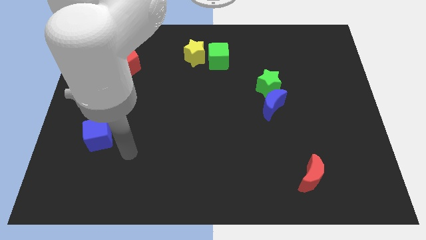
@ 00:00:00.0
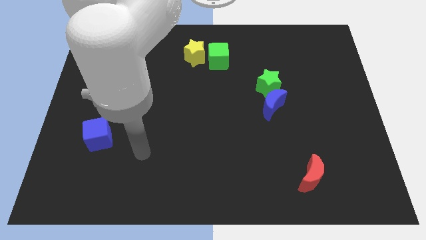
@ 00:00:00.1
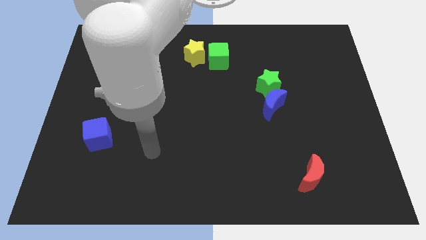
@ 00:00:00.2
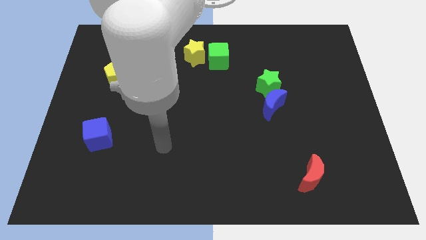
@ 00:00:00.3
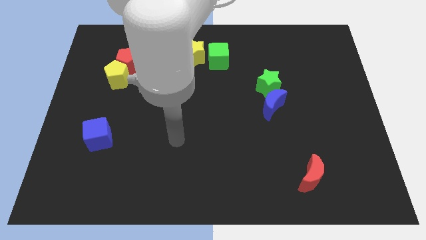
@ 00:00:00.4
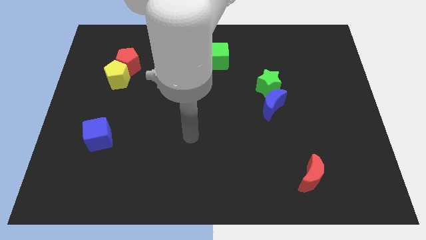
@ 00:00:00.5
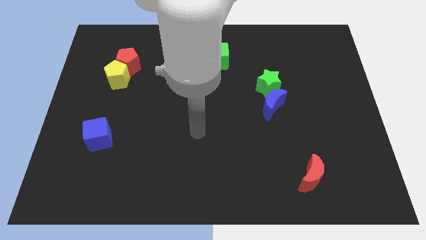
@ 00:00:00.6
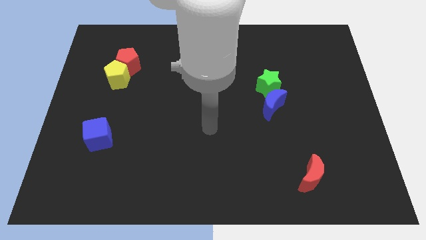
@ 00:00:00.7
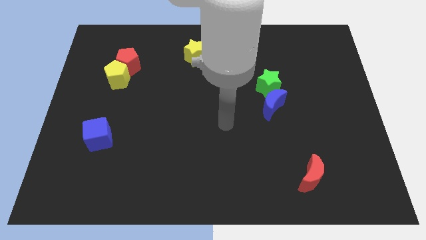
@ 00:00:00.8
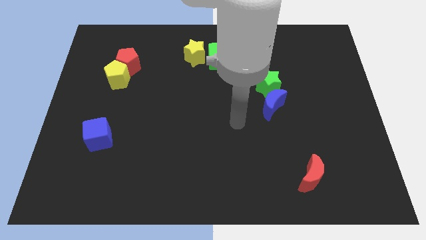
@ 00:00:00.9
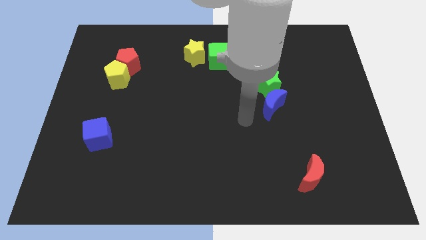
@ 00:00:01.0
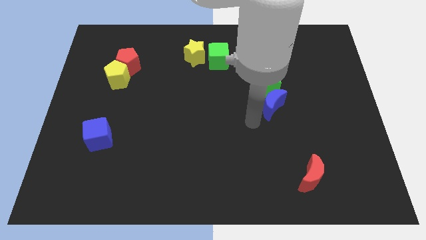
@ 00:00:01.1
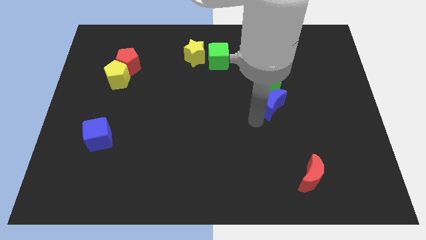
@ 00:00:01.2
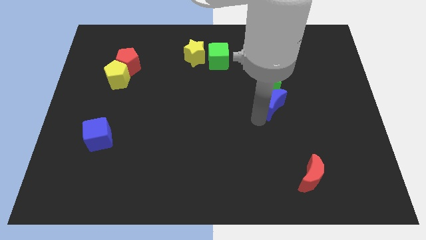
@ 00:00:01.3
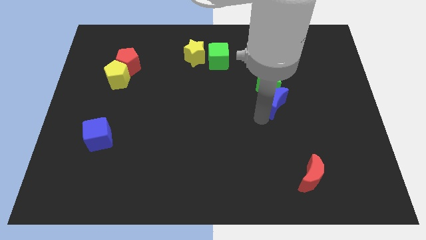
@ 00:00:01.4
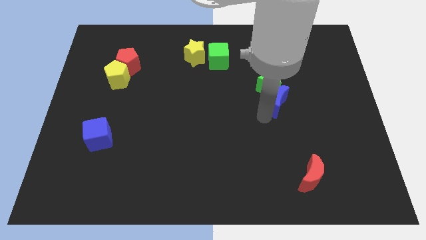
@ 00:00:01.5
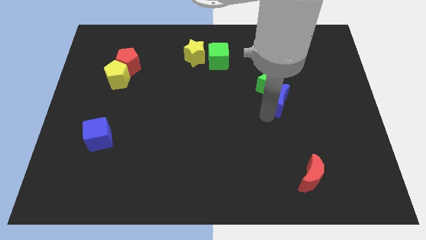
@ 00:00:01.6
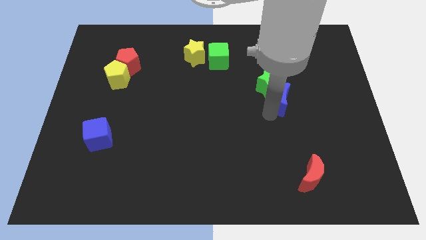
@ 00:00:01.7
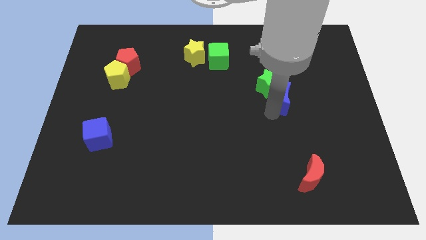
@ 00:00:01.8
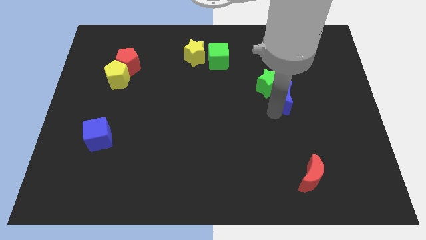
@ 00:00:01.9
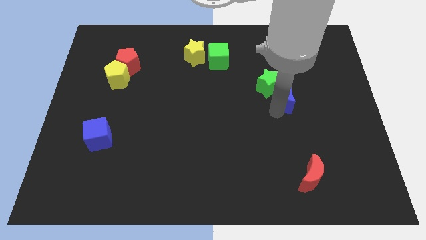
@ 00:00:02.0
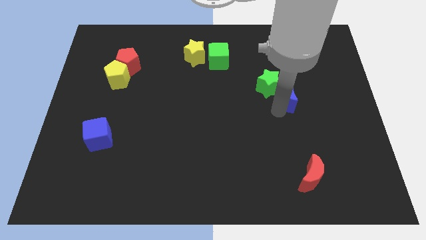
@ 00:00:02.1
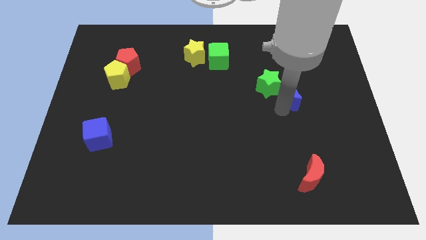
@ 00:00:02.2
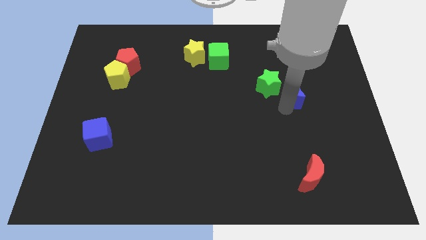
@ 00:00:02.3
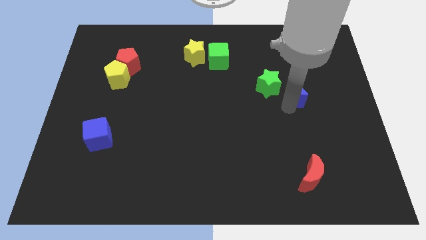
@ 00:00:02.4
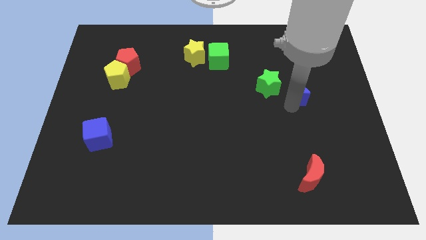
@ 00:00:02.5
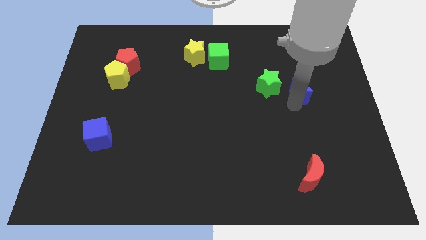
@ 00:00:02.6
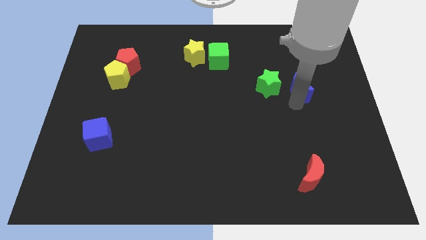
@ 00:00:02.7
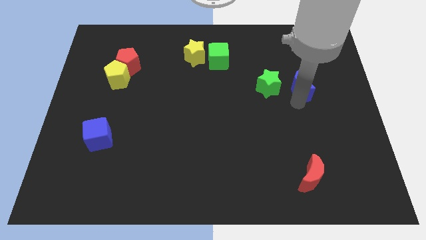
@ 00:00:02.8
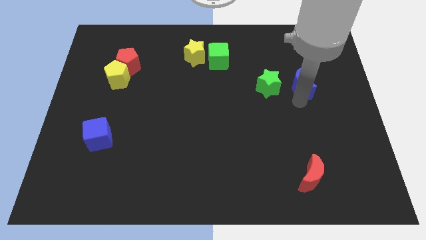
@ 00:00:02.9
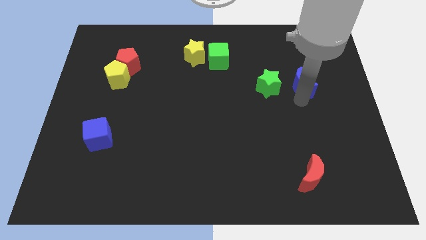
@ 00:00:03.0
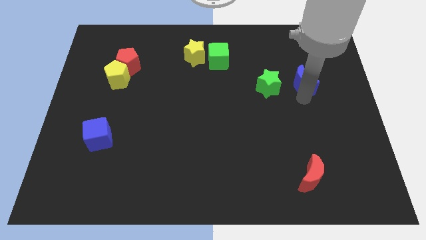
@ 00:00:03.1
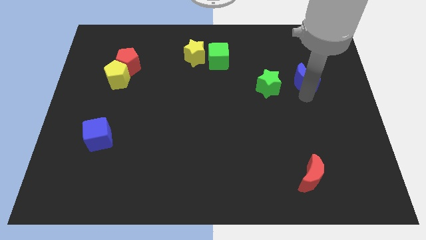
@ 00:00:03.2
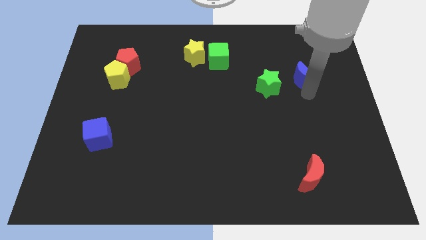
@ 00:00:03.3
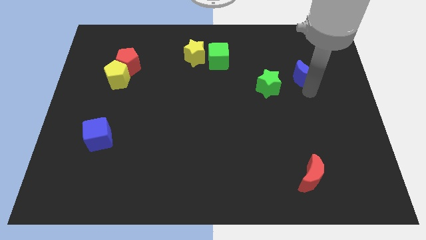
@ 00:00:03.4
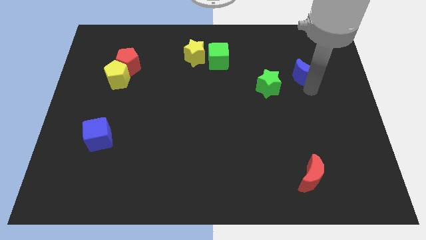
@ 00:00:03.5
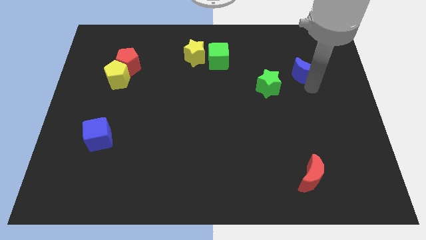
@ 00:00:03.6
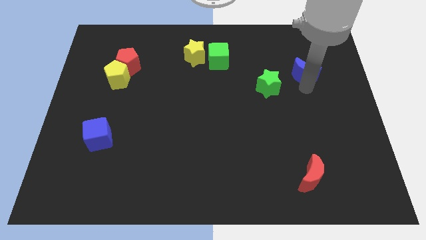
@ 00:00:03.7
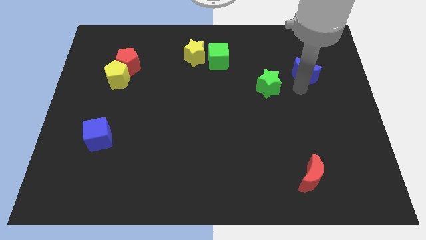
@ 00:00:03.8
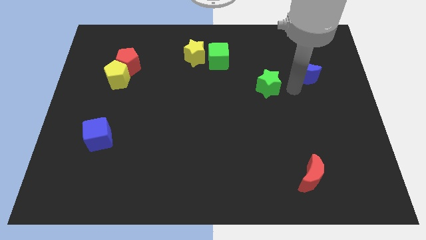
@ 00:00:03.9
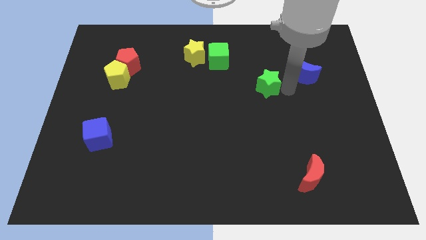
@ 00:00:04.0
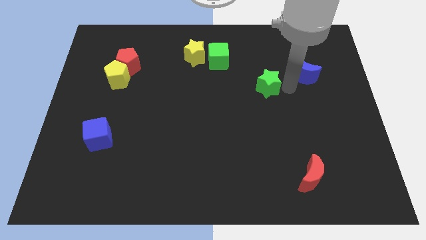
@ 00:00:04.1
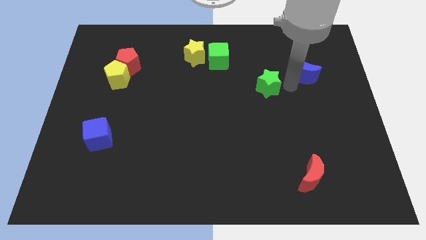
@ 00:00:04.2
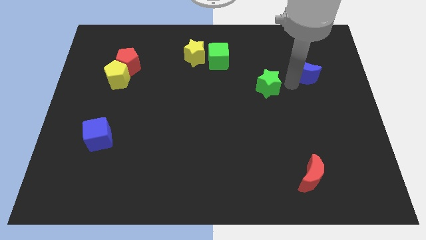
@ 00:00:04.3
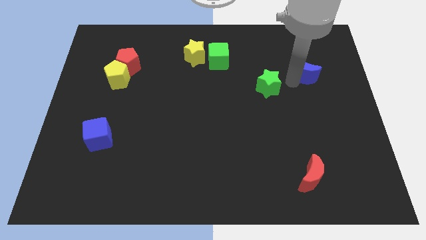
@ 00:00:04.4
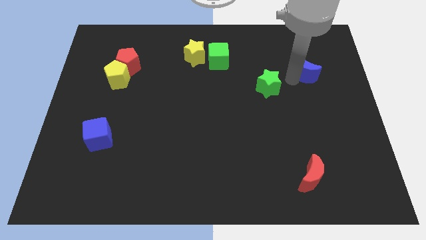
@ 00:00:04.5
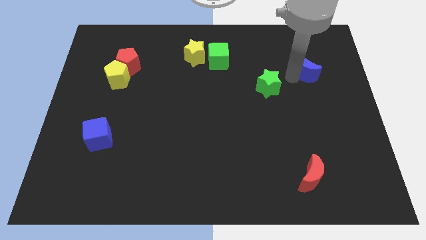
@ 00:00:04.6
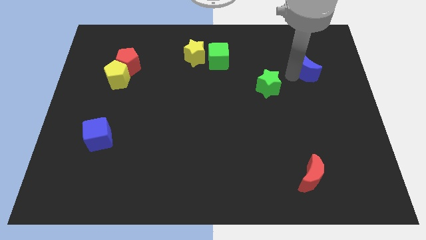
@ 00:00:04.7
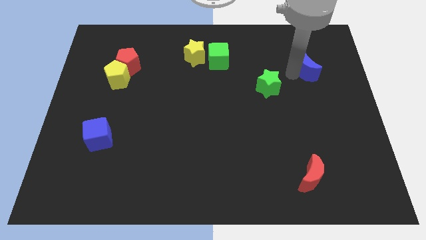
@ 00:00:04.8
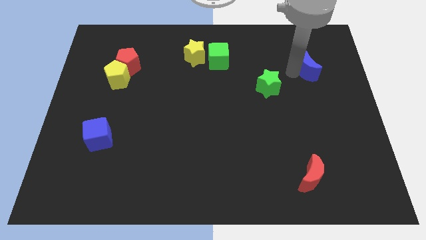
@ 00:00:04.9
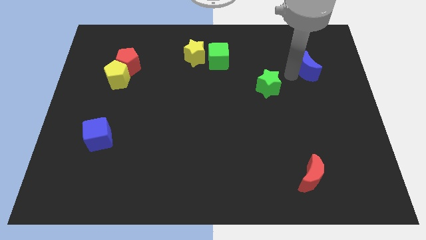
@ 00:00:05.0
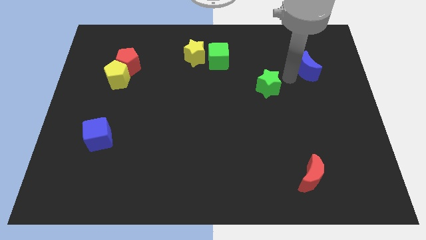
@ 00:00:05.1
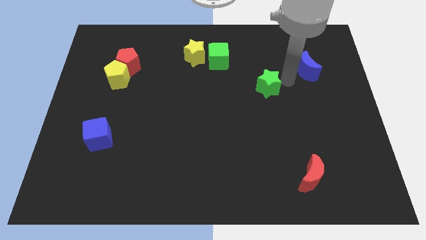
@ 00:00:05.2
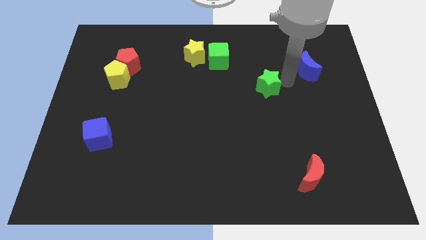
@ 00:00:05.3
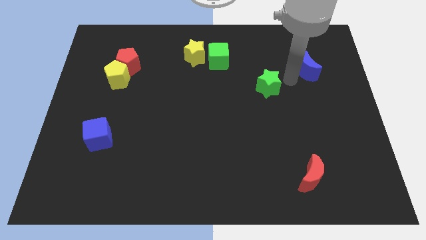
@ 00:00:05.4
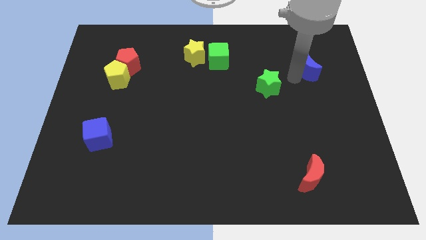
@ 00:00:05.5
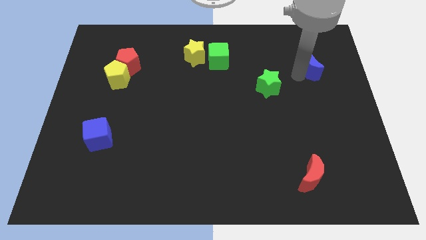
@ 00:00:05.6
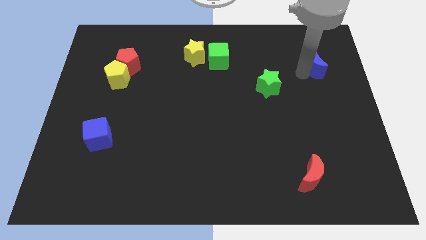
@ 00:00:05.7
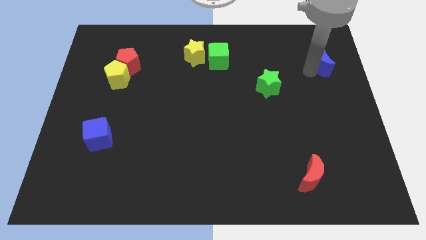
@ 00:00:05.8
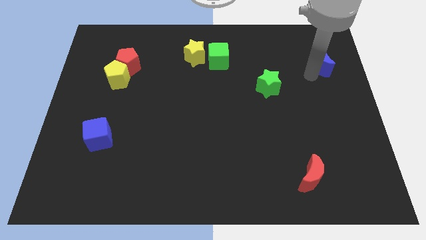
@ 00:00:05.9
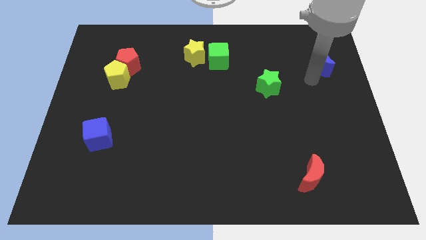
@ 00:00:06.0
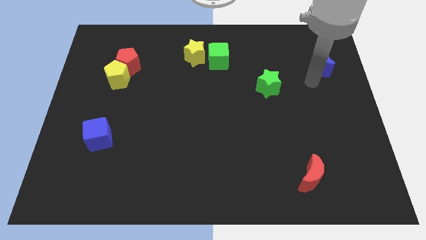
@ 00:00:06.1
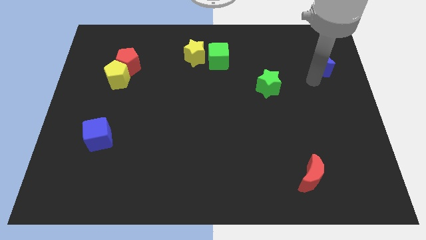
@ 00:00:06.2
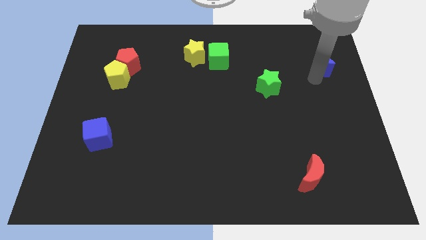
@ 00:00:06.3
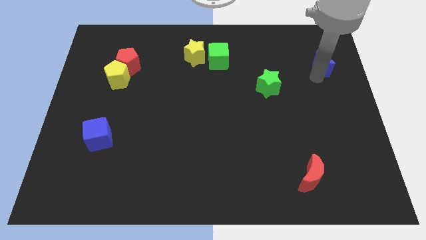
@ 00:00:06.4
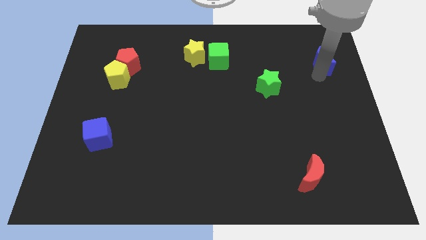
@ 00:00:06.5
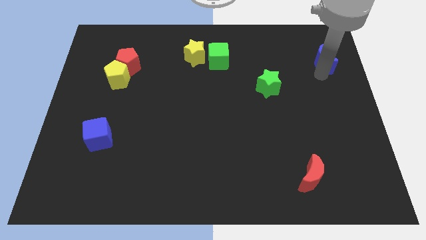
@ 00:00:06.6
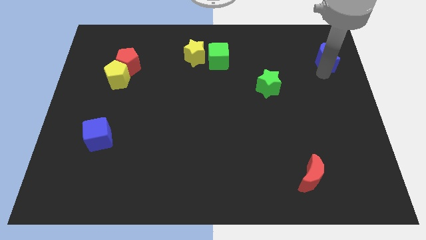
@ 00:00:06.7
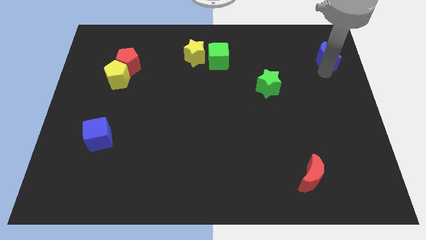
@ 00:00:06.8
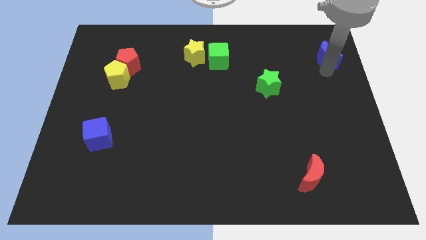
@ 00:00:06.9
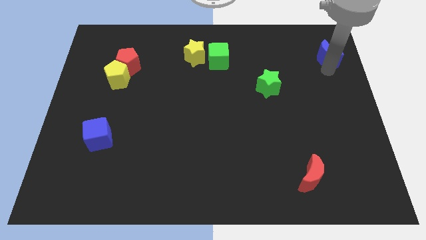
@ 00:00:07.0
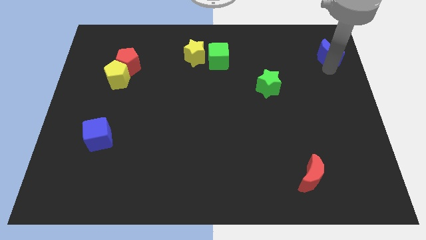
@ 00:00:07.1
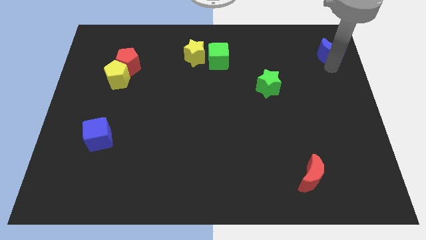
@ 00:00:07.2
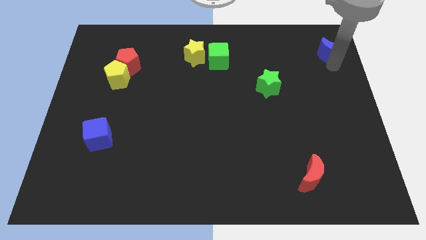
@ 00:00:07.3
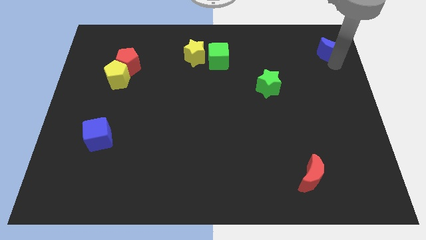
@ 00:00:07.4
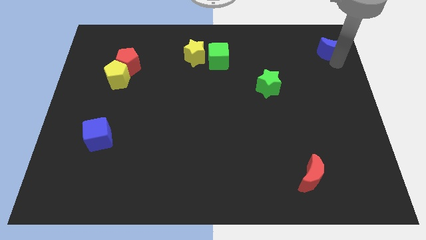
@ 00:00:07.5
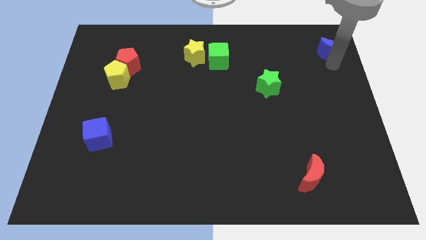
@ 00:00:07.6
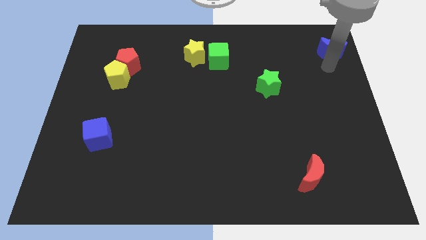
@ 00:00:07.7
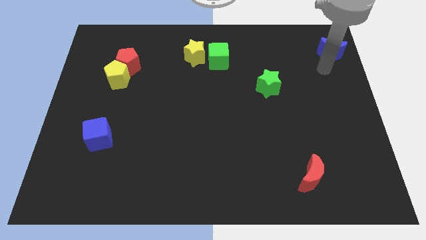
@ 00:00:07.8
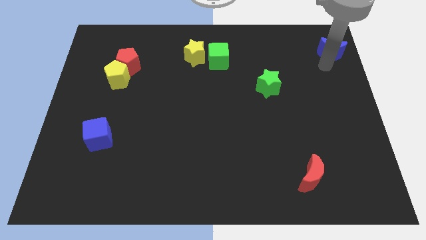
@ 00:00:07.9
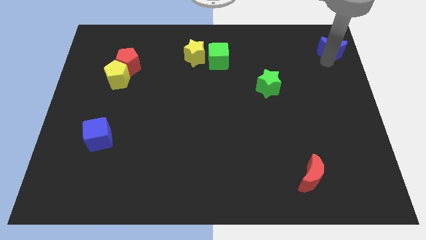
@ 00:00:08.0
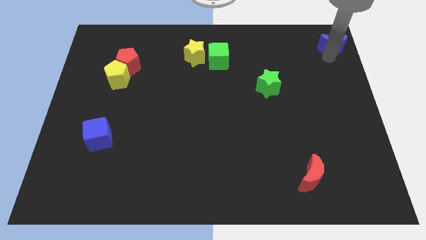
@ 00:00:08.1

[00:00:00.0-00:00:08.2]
put the blue moon to the upper right corner

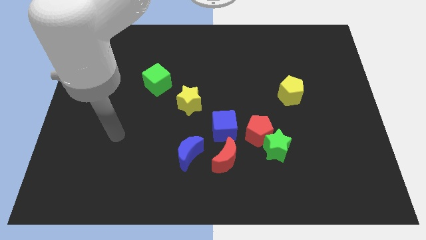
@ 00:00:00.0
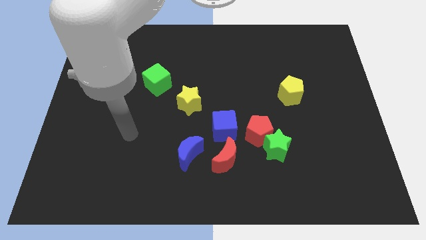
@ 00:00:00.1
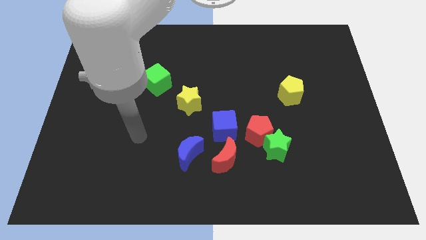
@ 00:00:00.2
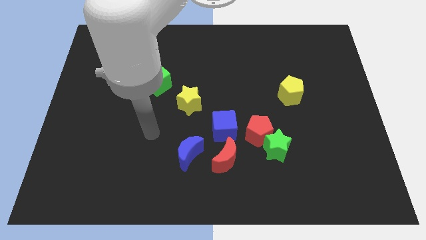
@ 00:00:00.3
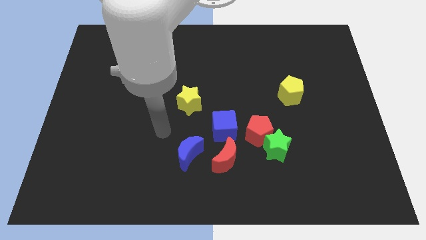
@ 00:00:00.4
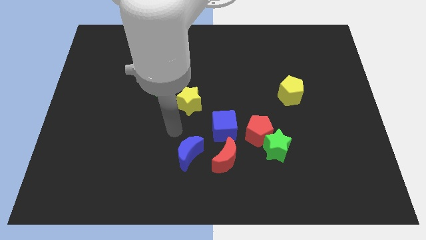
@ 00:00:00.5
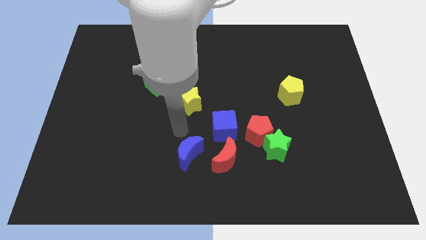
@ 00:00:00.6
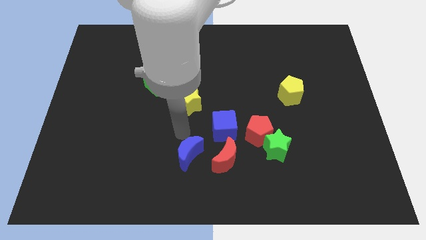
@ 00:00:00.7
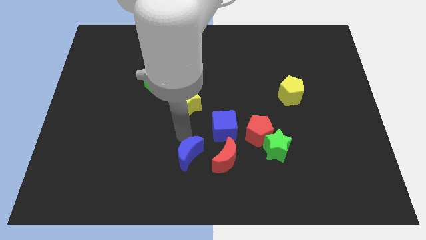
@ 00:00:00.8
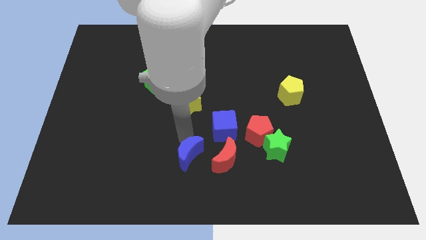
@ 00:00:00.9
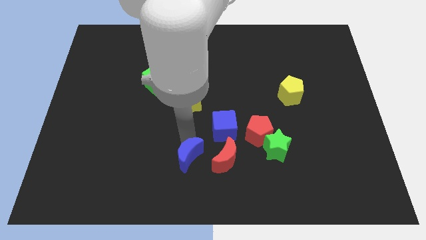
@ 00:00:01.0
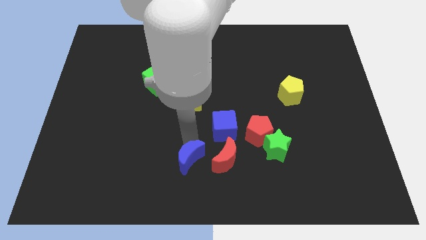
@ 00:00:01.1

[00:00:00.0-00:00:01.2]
push the blue moon to the bottom side
